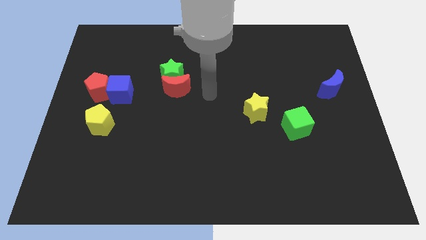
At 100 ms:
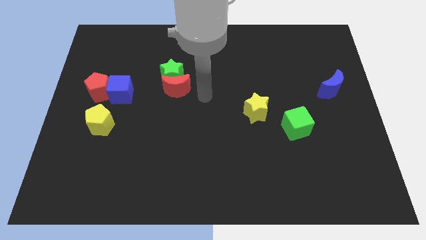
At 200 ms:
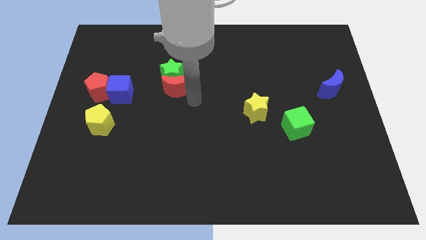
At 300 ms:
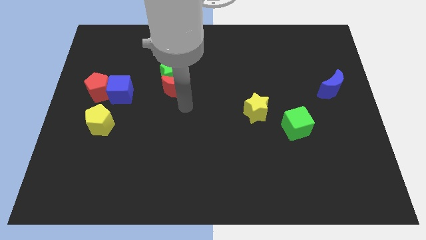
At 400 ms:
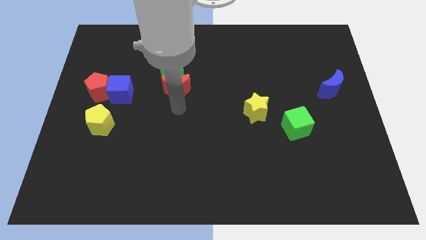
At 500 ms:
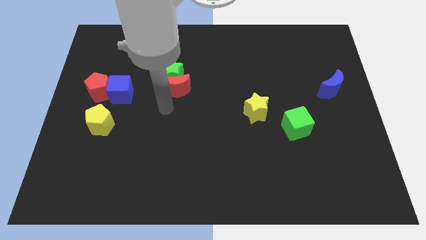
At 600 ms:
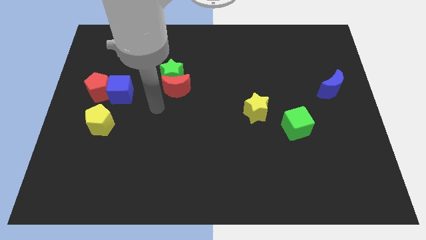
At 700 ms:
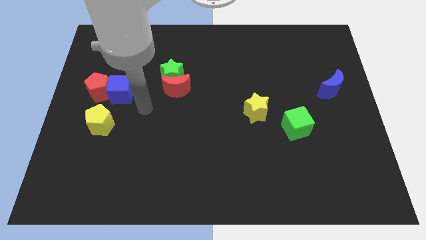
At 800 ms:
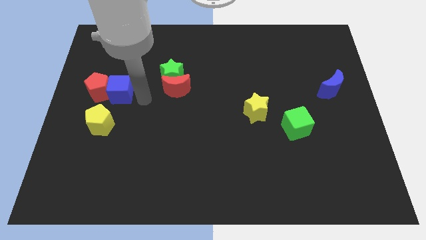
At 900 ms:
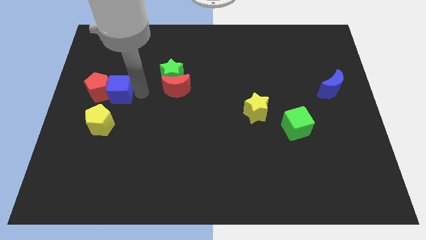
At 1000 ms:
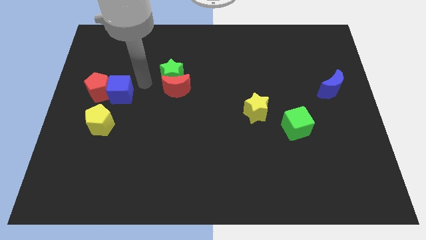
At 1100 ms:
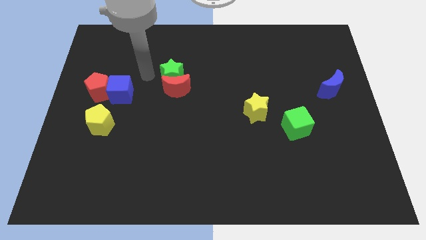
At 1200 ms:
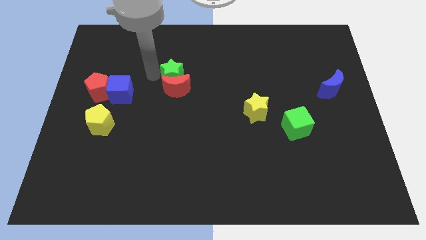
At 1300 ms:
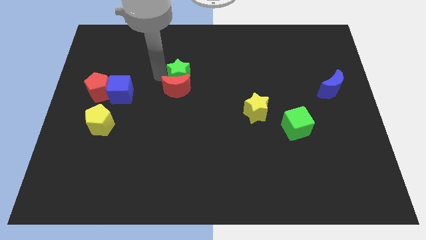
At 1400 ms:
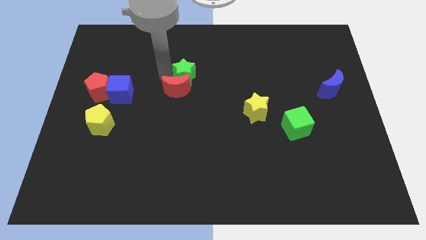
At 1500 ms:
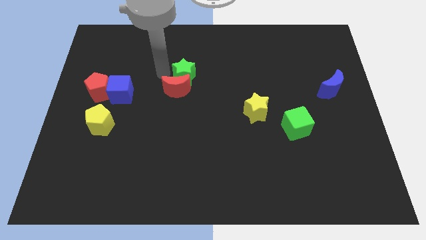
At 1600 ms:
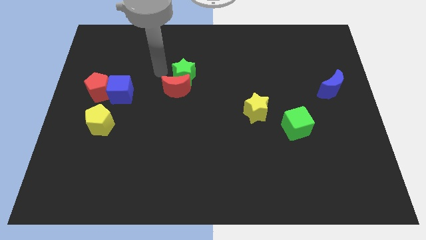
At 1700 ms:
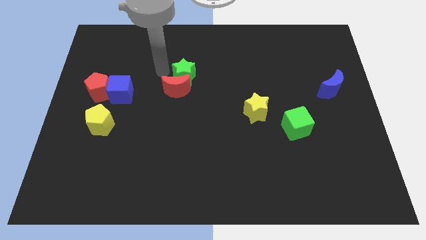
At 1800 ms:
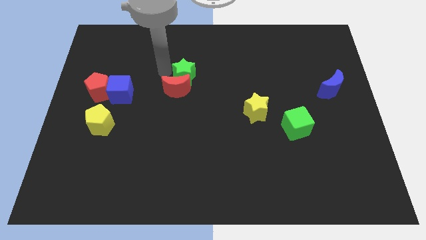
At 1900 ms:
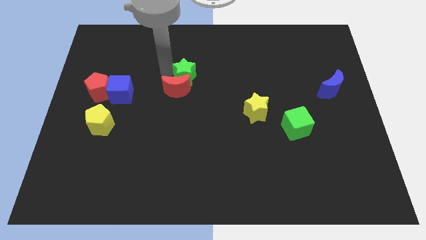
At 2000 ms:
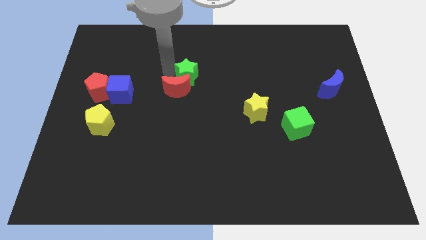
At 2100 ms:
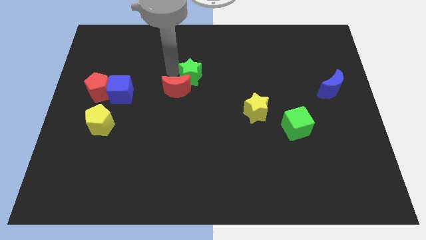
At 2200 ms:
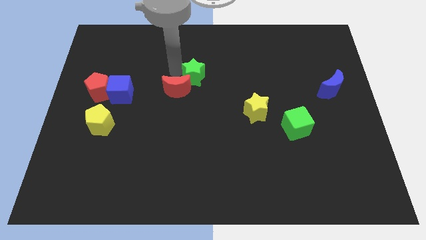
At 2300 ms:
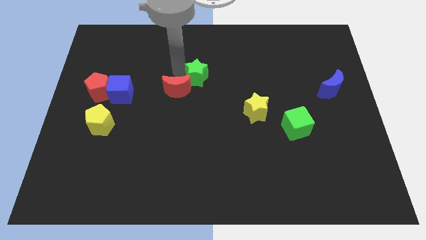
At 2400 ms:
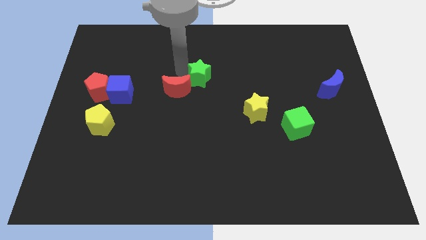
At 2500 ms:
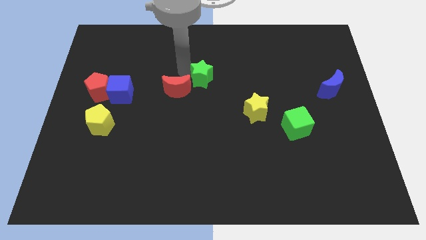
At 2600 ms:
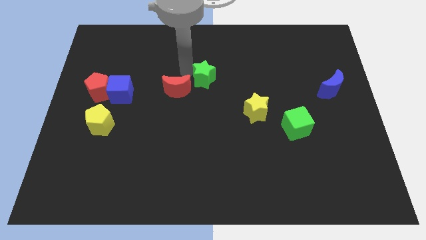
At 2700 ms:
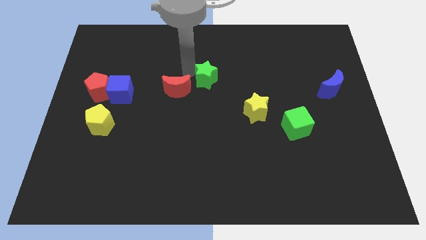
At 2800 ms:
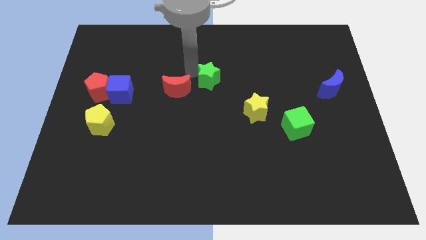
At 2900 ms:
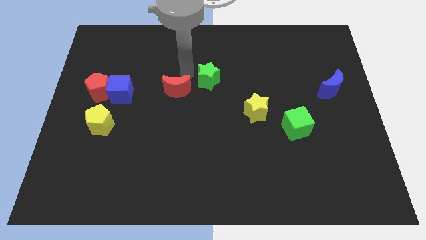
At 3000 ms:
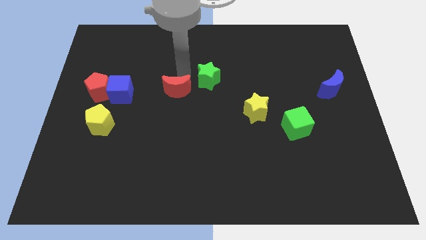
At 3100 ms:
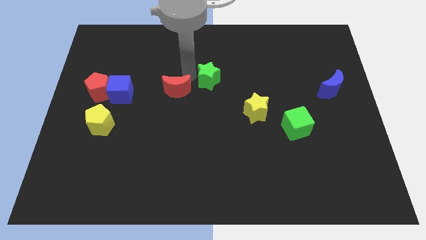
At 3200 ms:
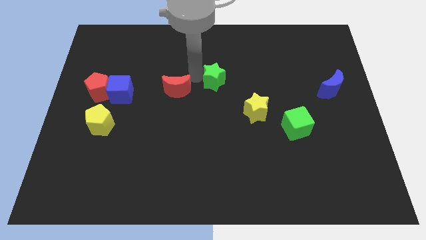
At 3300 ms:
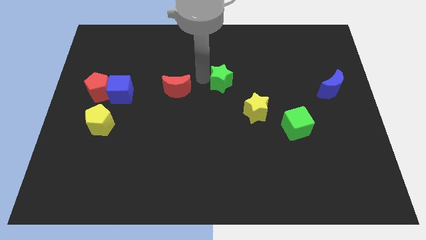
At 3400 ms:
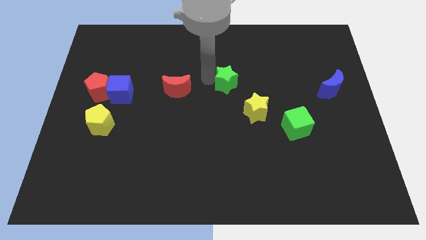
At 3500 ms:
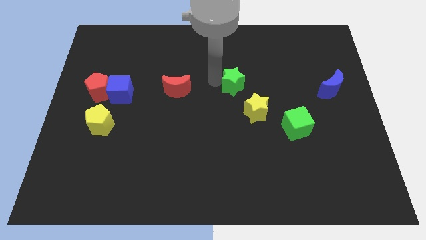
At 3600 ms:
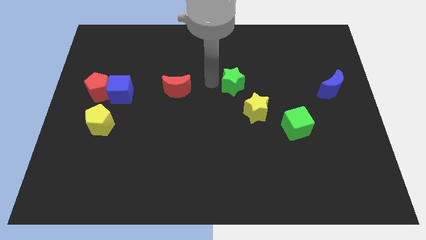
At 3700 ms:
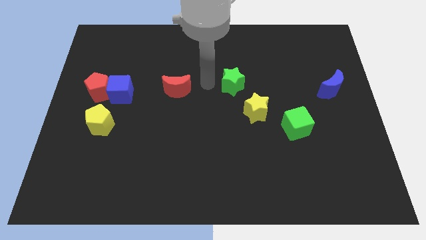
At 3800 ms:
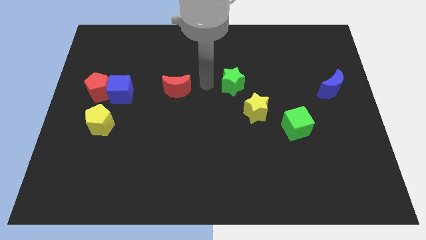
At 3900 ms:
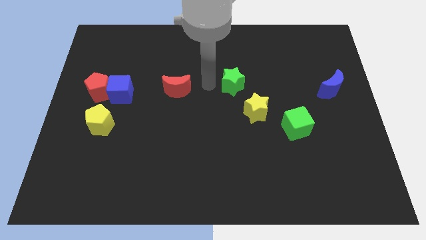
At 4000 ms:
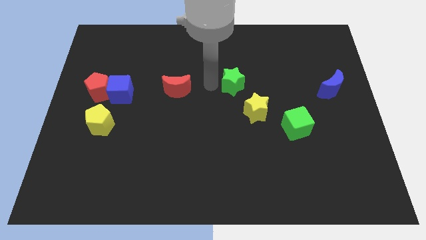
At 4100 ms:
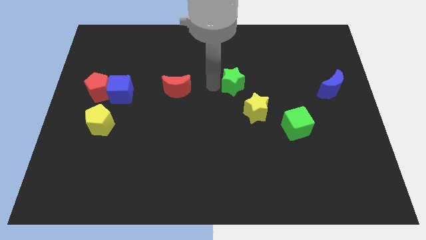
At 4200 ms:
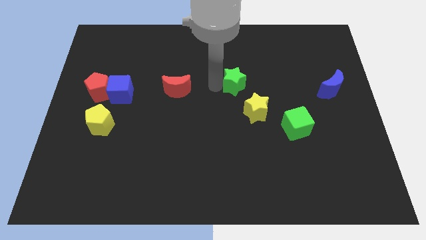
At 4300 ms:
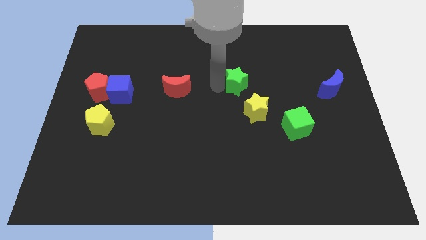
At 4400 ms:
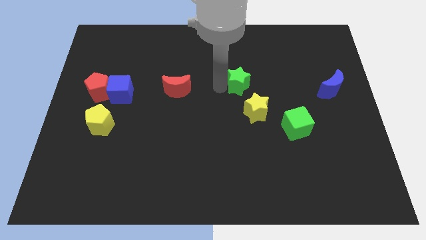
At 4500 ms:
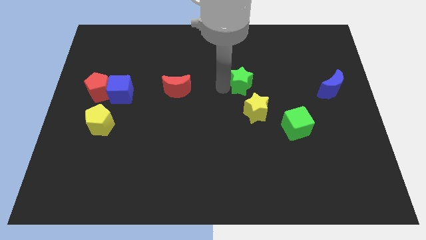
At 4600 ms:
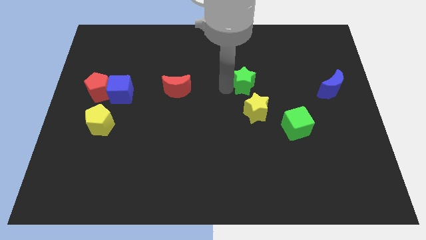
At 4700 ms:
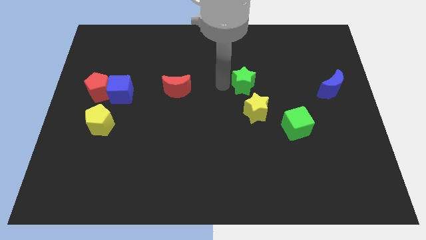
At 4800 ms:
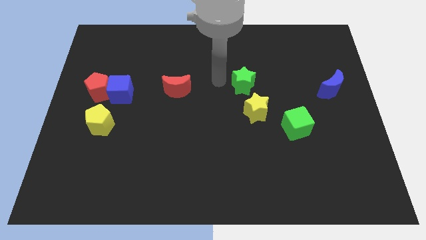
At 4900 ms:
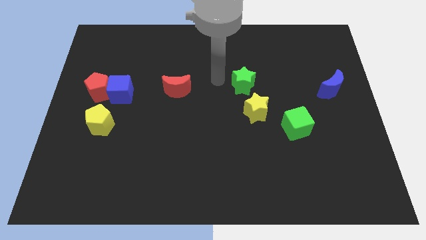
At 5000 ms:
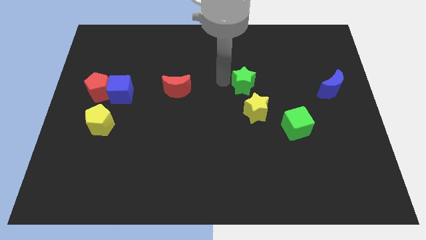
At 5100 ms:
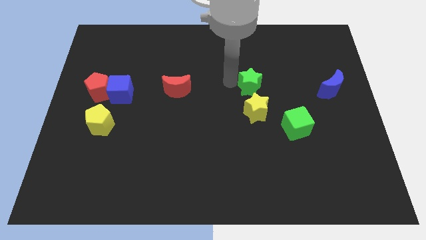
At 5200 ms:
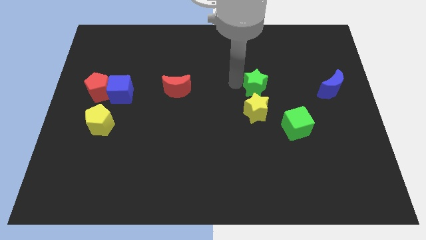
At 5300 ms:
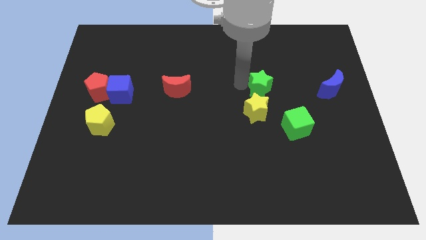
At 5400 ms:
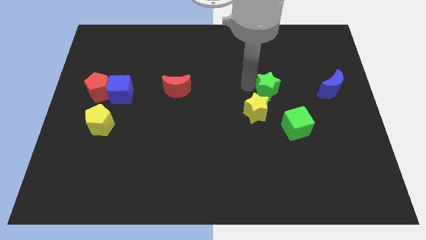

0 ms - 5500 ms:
move the green star just left of the blue moon

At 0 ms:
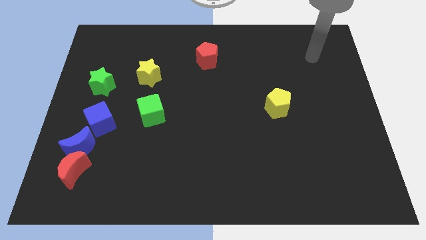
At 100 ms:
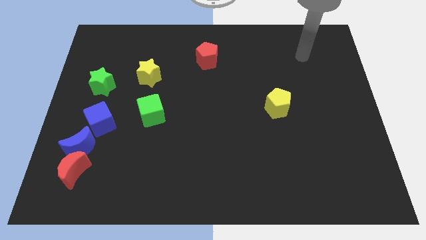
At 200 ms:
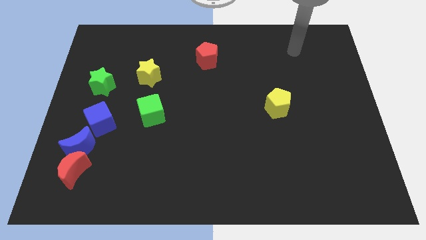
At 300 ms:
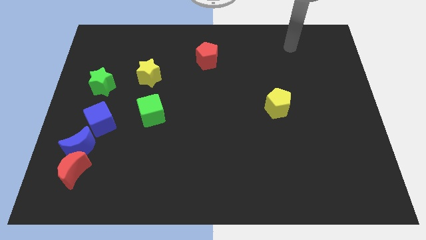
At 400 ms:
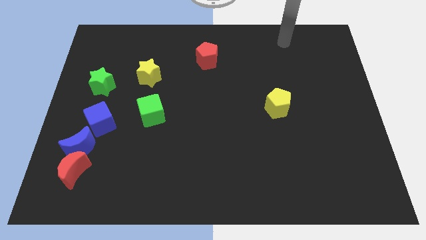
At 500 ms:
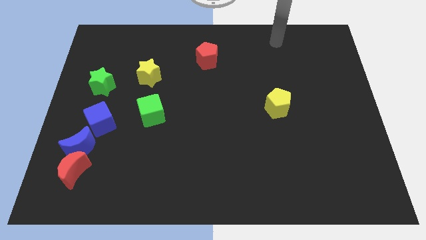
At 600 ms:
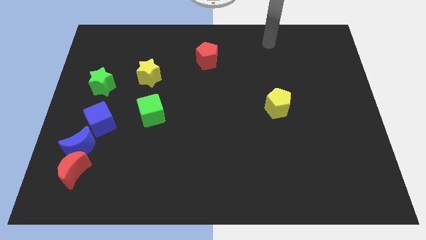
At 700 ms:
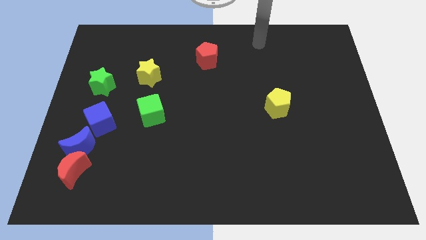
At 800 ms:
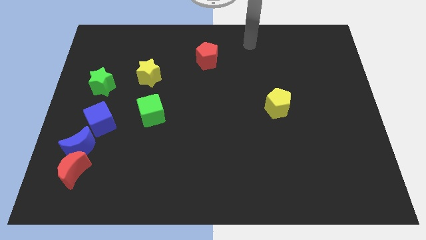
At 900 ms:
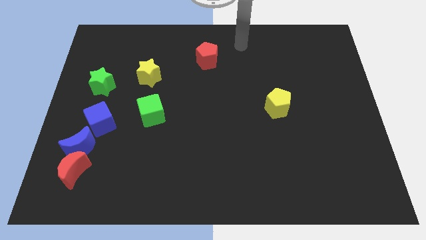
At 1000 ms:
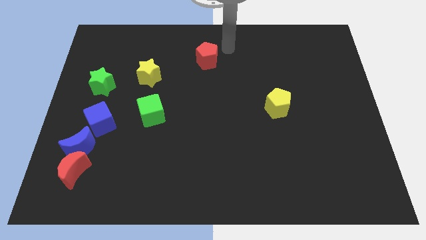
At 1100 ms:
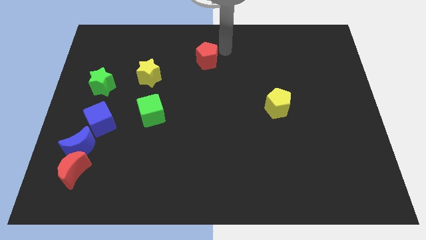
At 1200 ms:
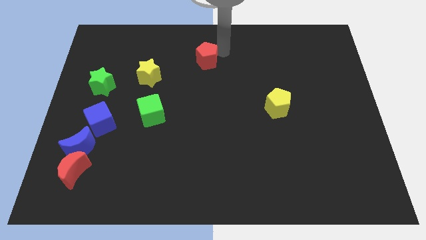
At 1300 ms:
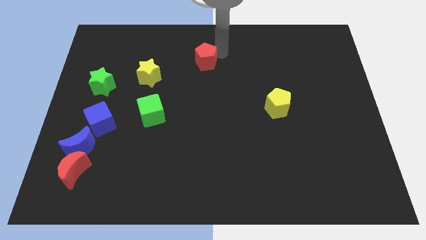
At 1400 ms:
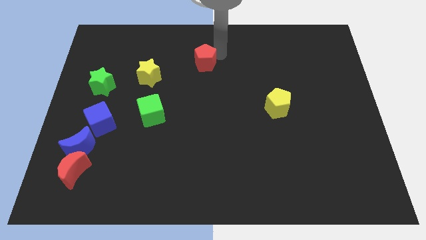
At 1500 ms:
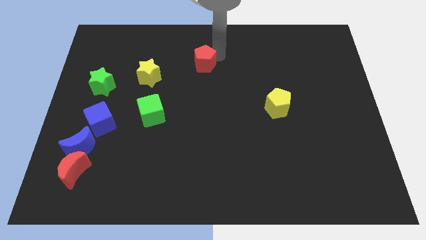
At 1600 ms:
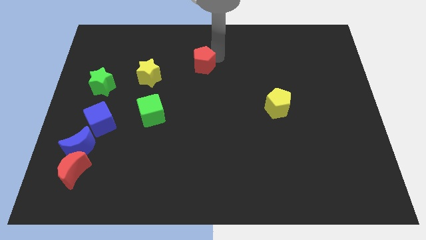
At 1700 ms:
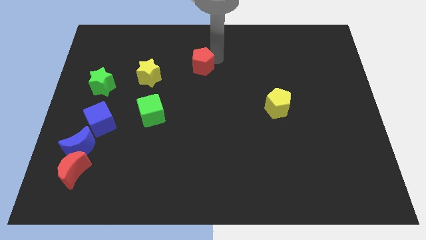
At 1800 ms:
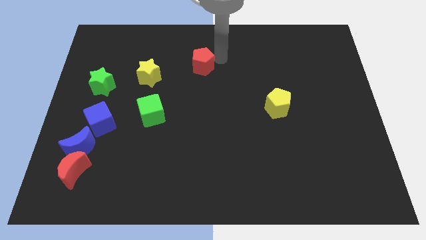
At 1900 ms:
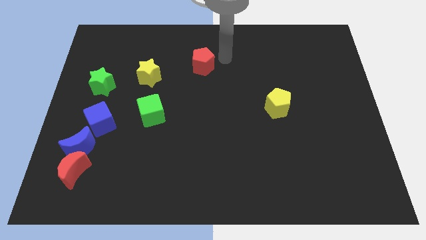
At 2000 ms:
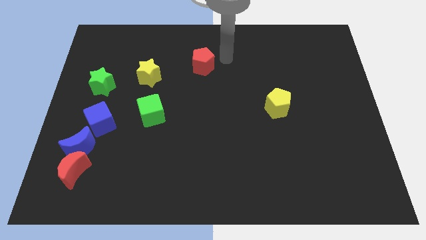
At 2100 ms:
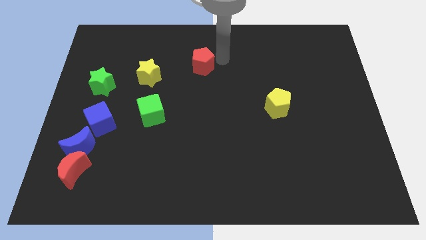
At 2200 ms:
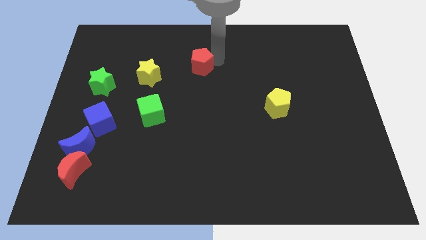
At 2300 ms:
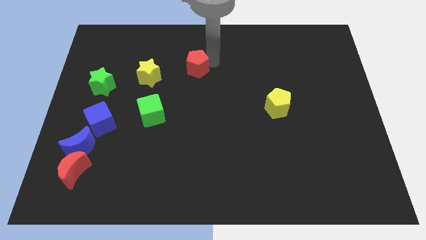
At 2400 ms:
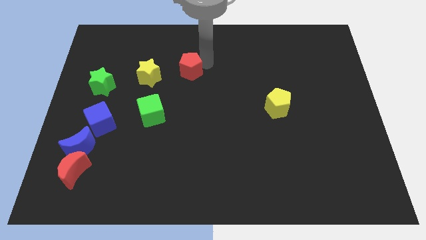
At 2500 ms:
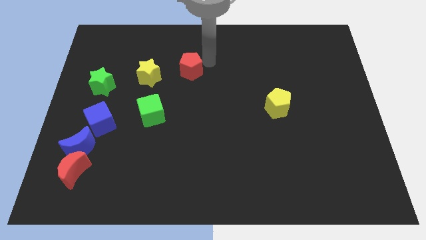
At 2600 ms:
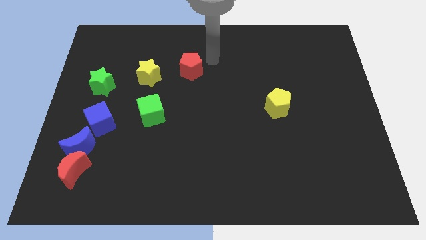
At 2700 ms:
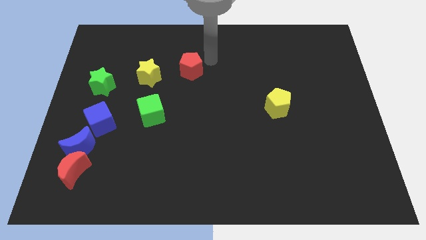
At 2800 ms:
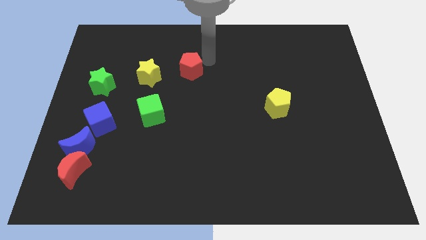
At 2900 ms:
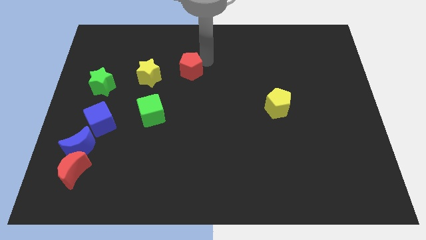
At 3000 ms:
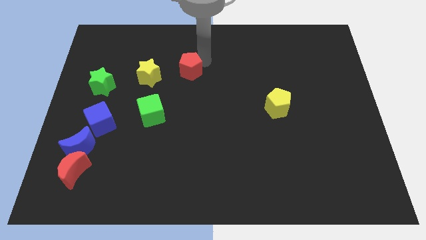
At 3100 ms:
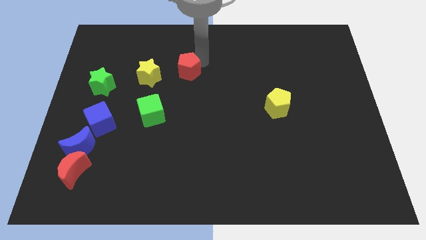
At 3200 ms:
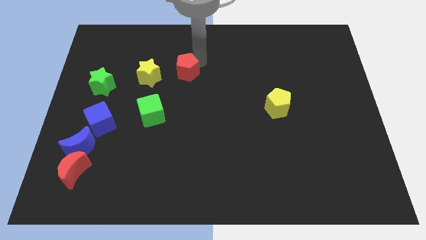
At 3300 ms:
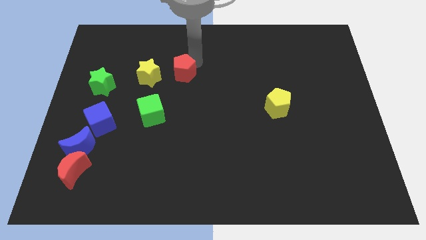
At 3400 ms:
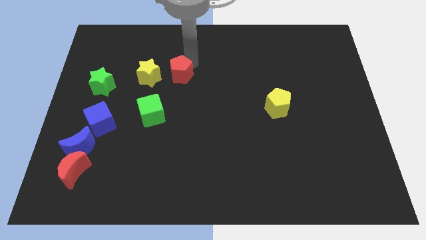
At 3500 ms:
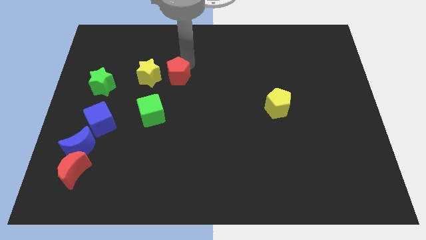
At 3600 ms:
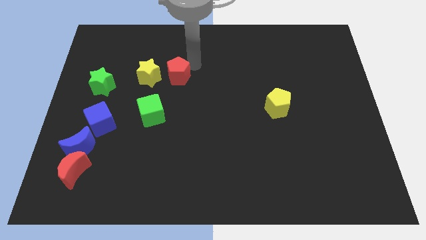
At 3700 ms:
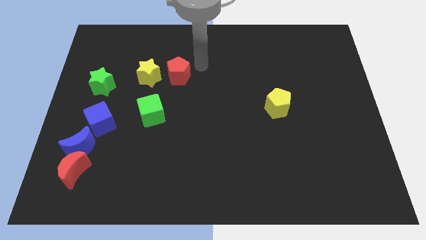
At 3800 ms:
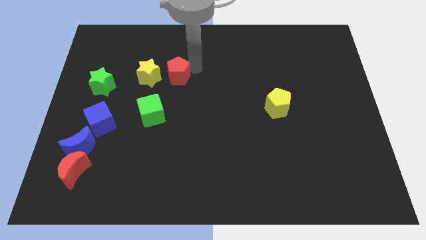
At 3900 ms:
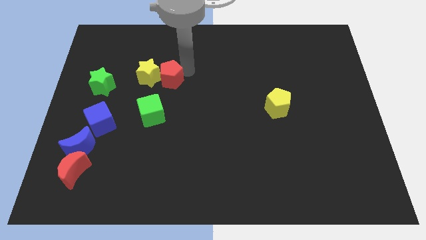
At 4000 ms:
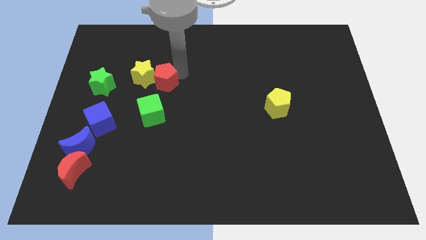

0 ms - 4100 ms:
put the red pentagon to the right of the green star
